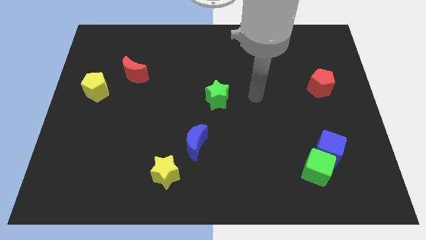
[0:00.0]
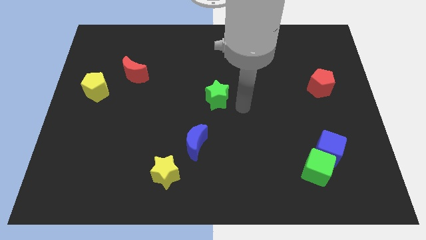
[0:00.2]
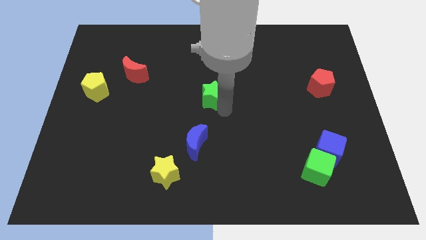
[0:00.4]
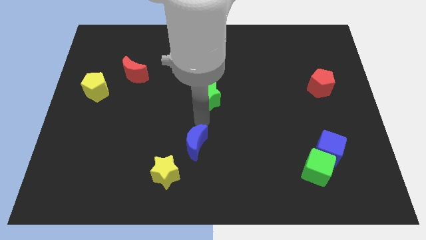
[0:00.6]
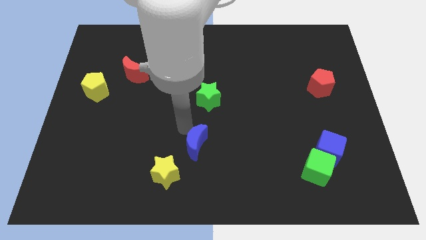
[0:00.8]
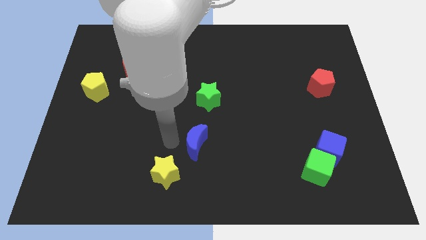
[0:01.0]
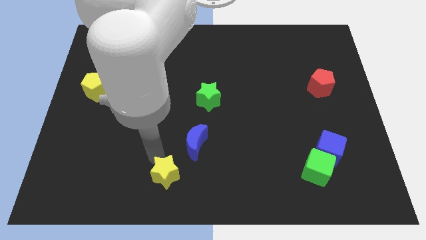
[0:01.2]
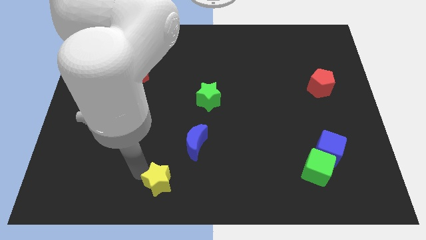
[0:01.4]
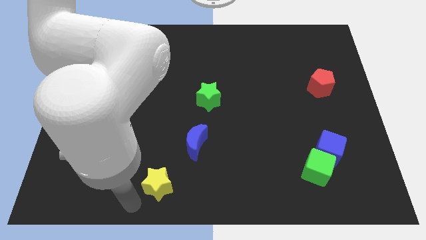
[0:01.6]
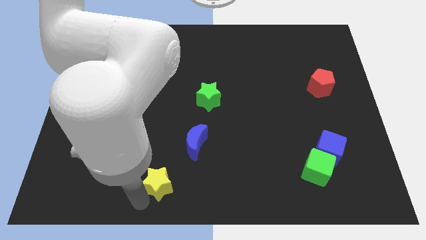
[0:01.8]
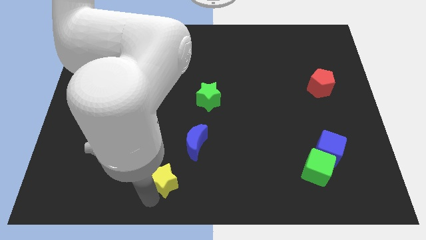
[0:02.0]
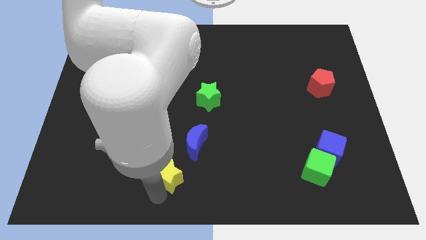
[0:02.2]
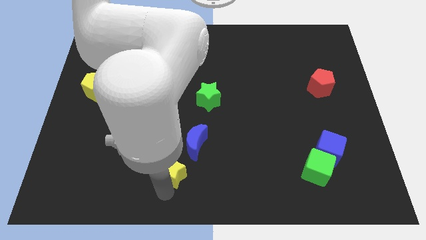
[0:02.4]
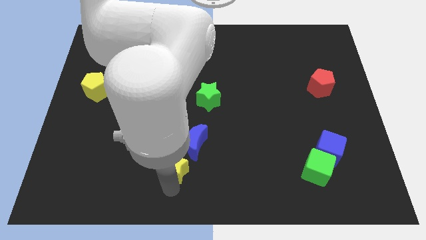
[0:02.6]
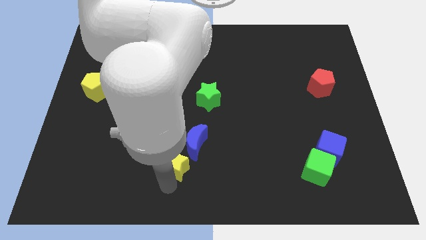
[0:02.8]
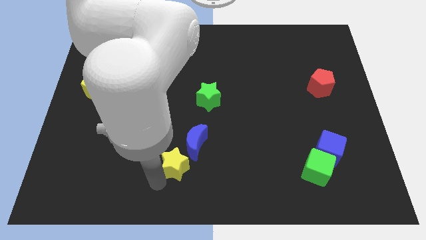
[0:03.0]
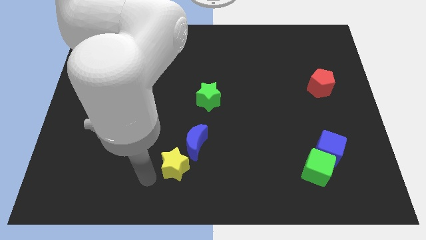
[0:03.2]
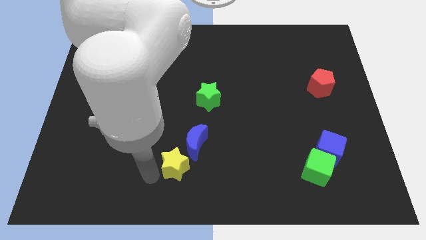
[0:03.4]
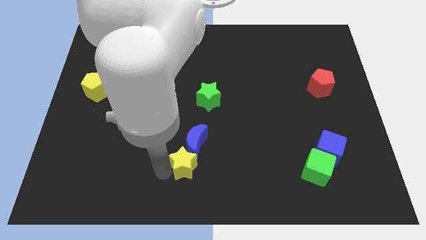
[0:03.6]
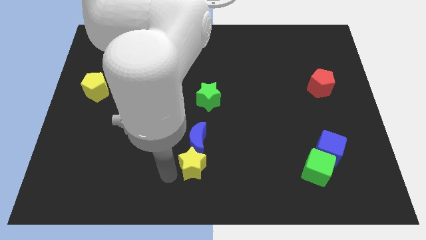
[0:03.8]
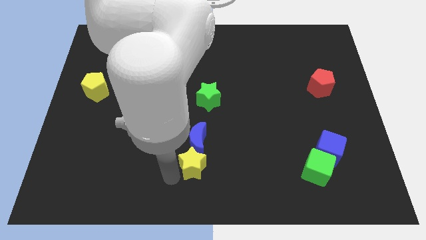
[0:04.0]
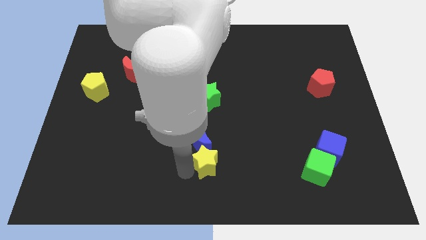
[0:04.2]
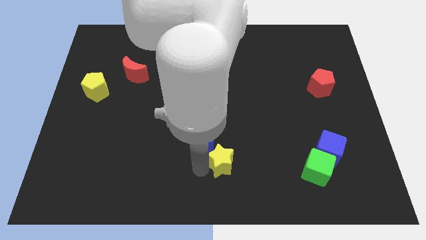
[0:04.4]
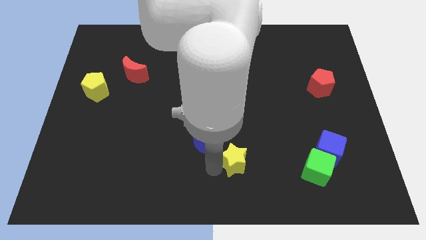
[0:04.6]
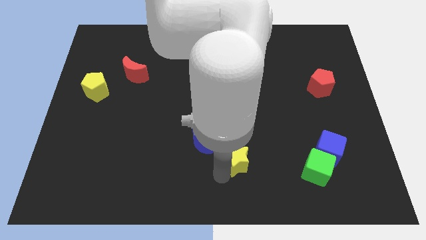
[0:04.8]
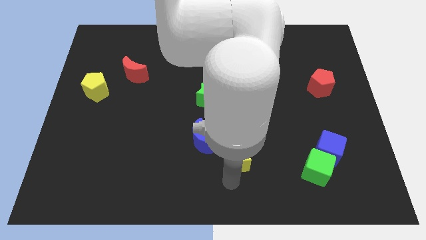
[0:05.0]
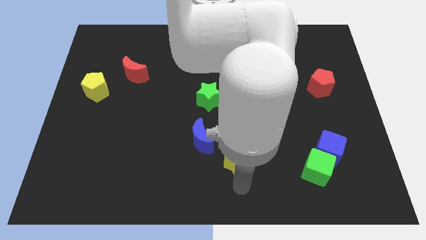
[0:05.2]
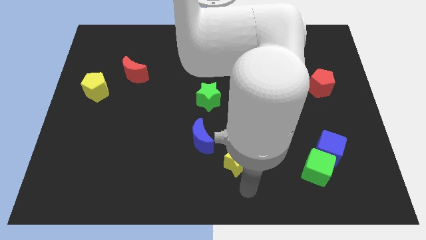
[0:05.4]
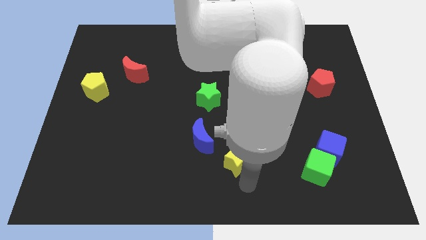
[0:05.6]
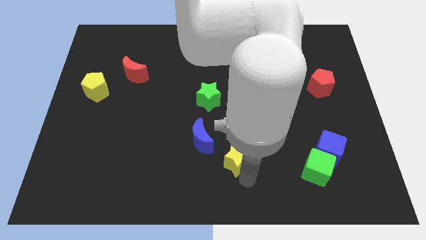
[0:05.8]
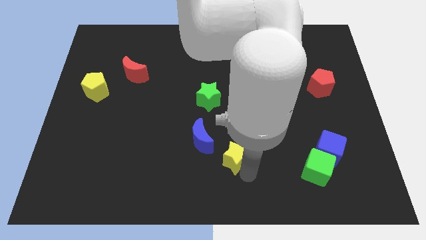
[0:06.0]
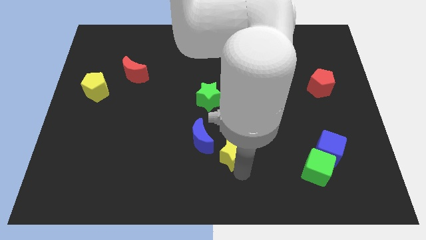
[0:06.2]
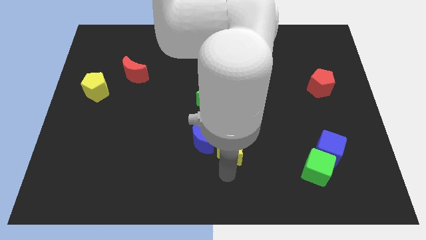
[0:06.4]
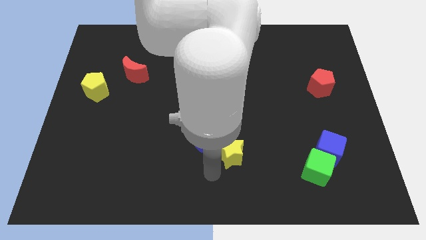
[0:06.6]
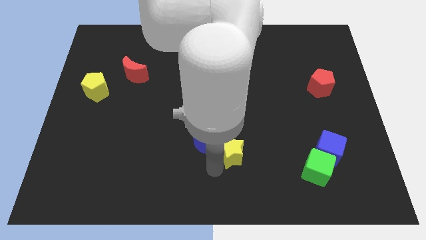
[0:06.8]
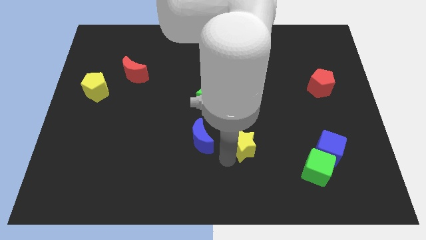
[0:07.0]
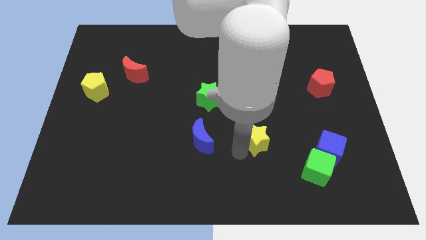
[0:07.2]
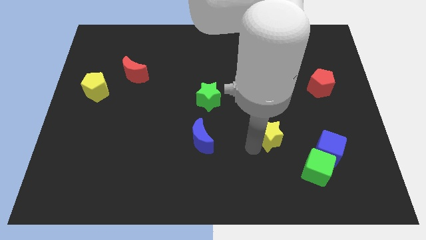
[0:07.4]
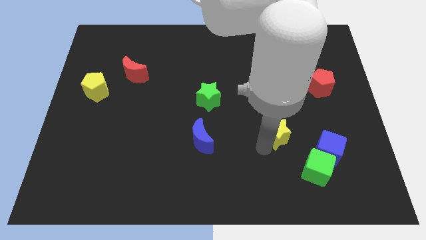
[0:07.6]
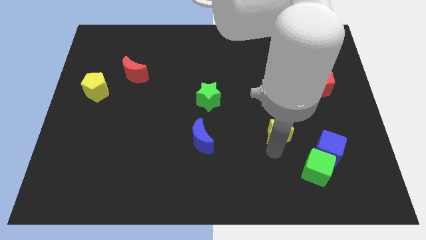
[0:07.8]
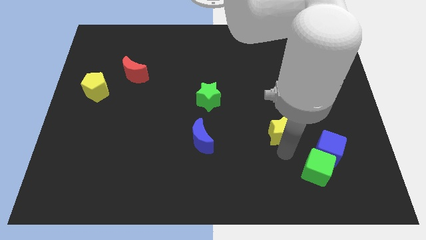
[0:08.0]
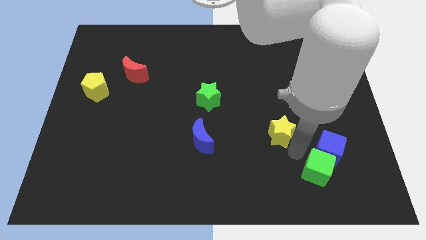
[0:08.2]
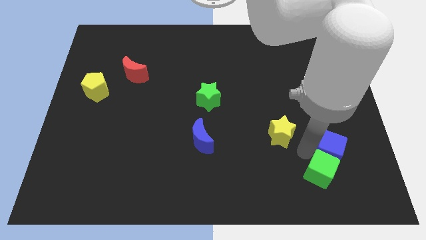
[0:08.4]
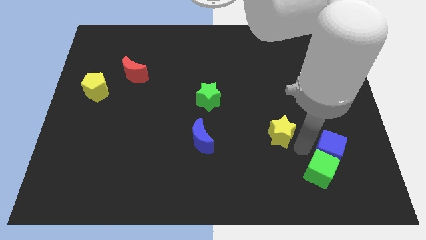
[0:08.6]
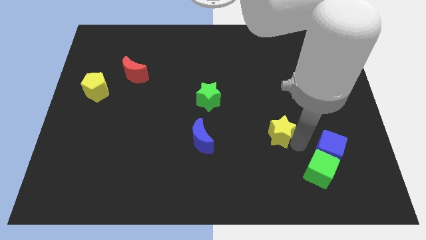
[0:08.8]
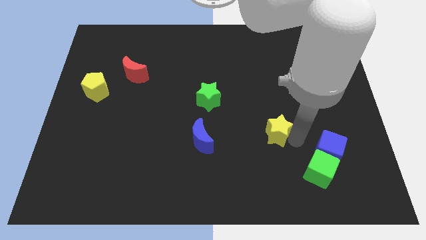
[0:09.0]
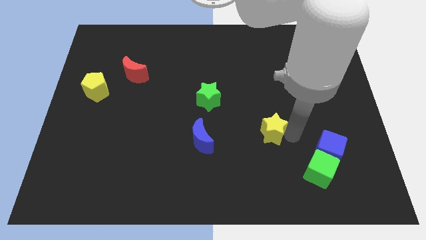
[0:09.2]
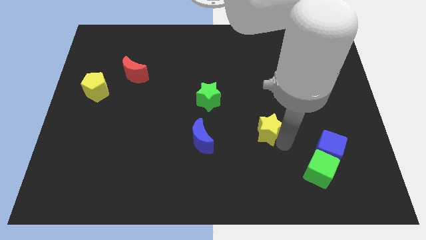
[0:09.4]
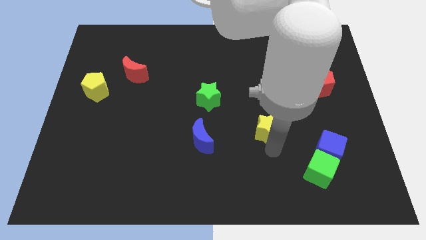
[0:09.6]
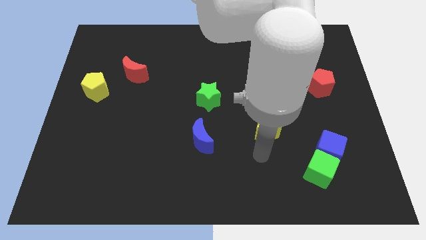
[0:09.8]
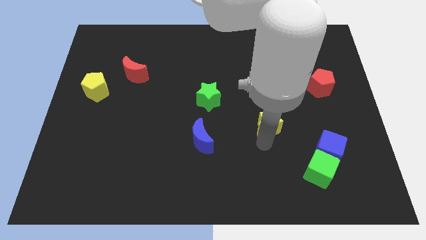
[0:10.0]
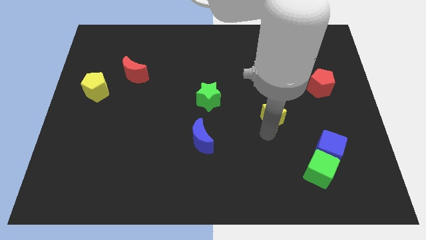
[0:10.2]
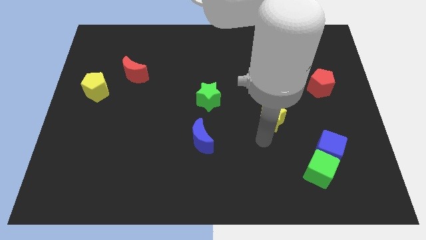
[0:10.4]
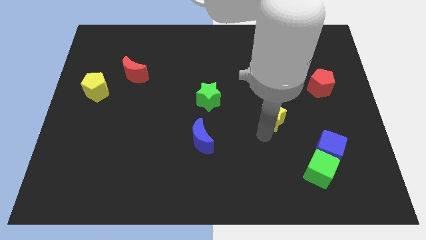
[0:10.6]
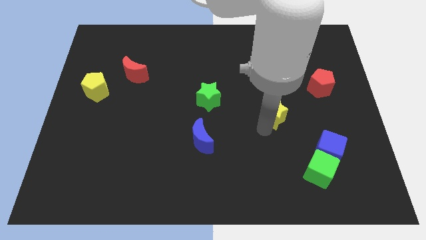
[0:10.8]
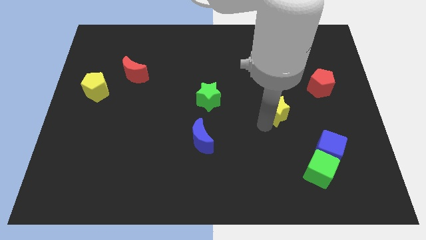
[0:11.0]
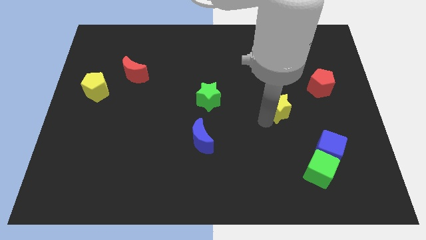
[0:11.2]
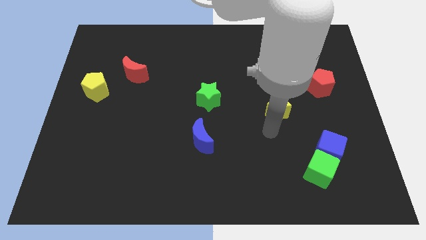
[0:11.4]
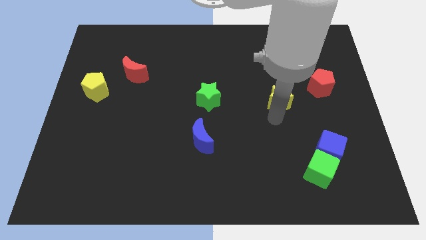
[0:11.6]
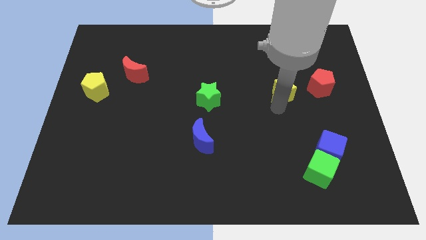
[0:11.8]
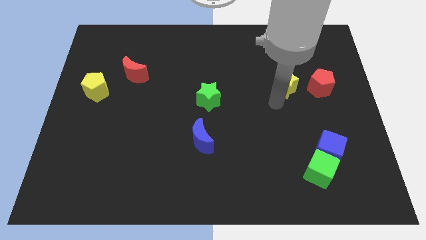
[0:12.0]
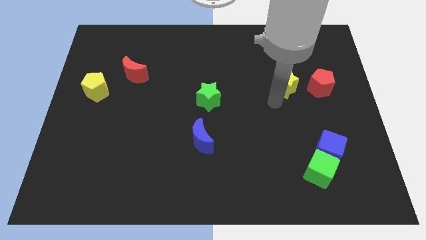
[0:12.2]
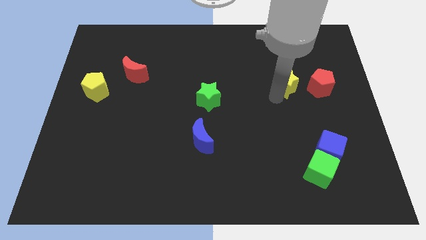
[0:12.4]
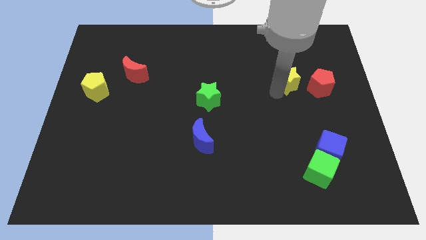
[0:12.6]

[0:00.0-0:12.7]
push the yellow star to the top left of the red pentagon

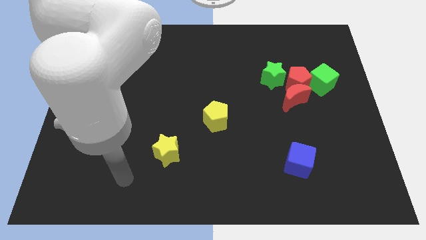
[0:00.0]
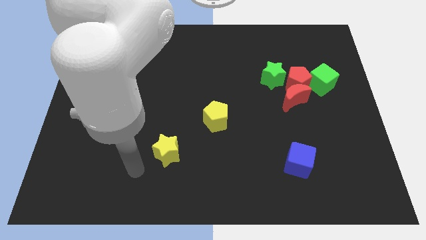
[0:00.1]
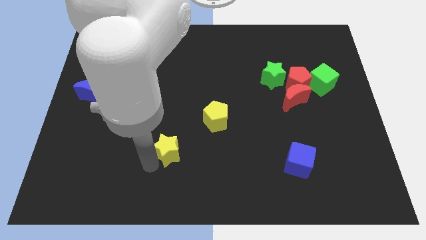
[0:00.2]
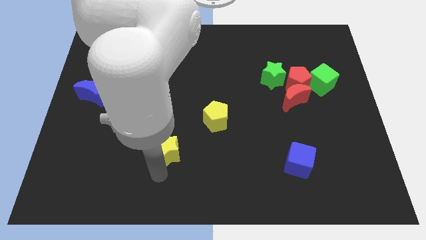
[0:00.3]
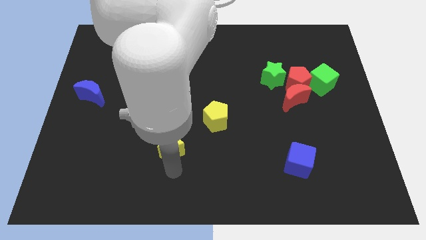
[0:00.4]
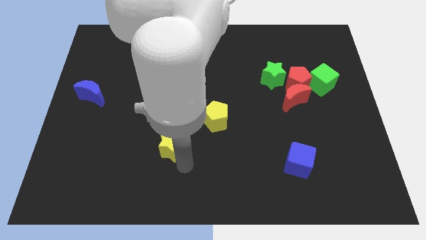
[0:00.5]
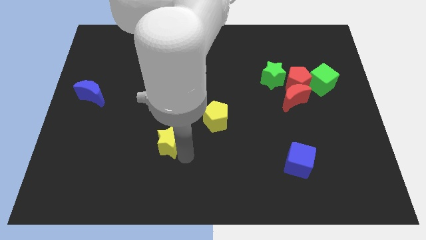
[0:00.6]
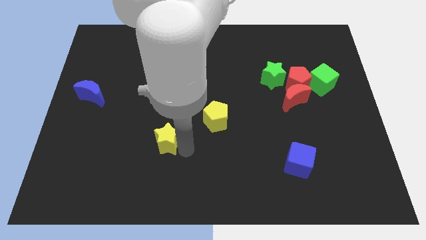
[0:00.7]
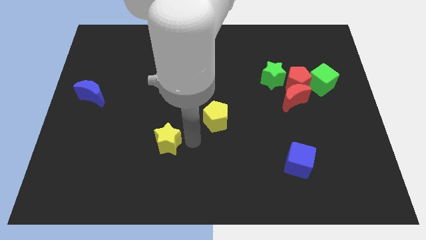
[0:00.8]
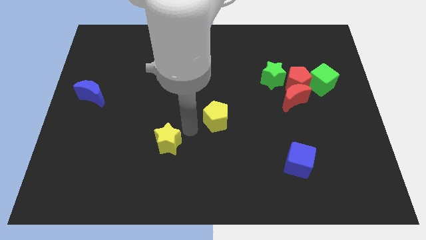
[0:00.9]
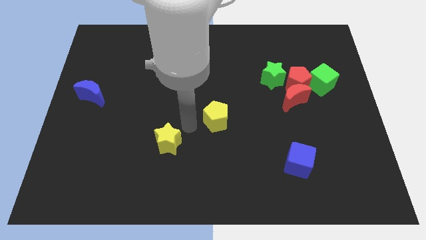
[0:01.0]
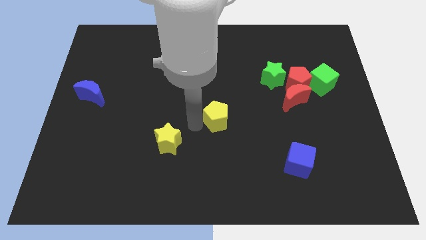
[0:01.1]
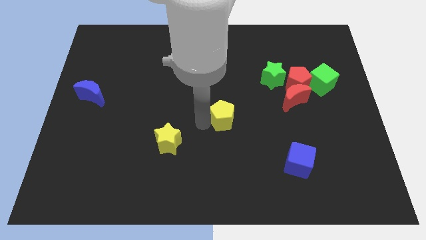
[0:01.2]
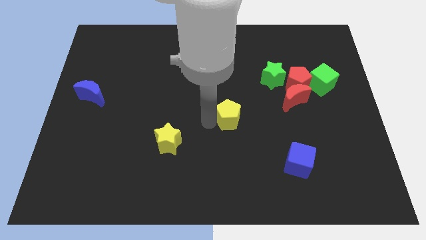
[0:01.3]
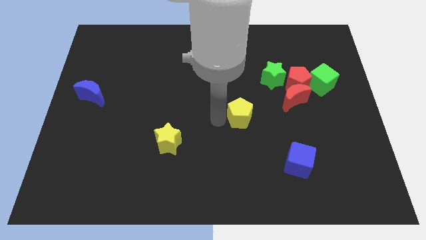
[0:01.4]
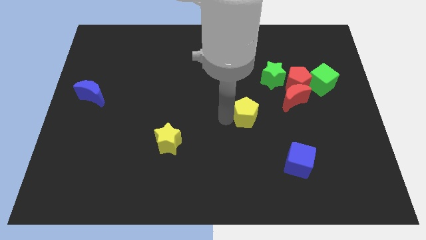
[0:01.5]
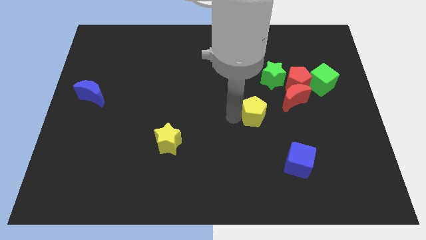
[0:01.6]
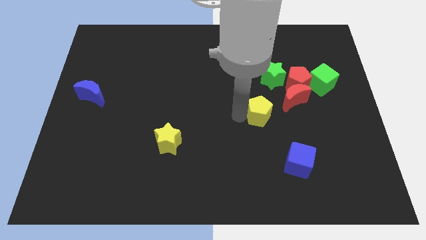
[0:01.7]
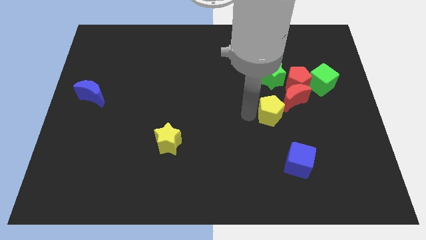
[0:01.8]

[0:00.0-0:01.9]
move the yellow pentagon to the top side of the blue cube
